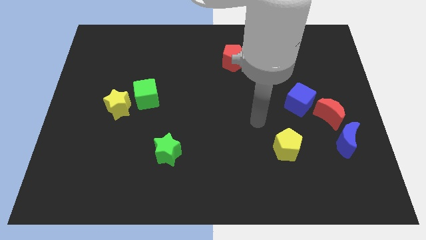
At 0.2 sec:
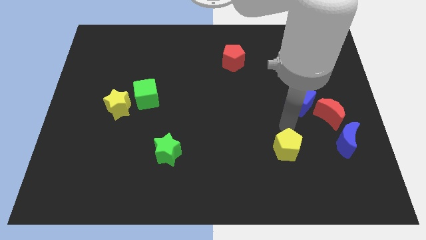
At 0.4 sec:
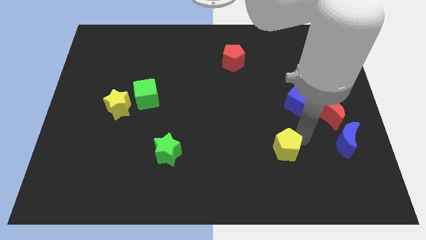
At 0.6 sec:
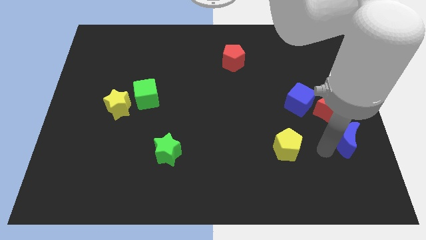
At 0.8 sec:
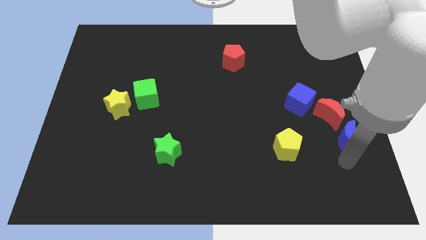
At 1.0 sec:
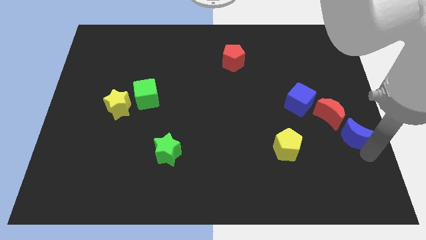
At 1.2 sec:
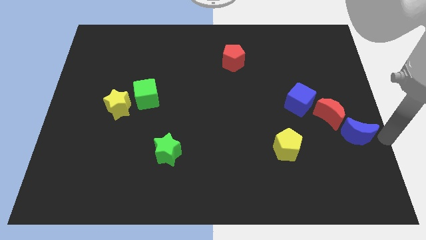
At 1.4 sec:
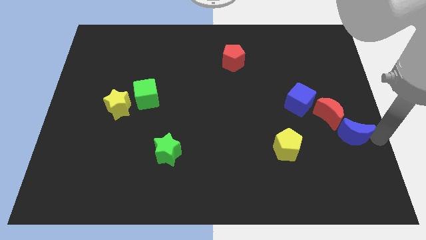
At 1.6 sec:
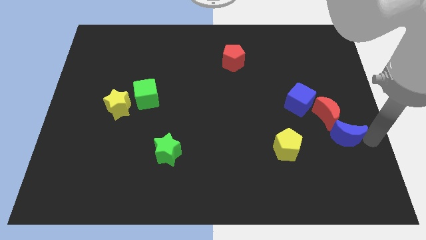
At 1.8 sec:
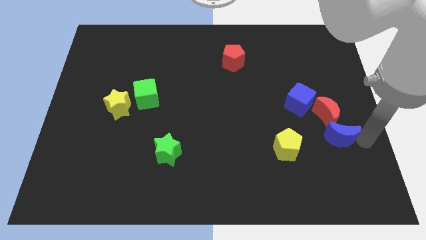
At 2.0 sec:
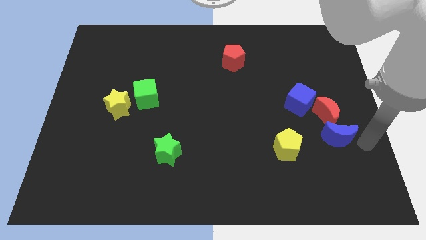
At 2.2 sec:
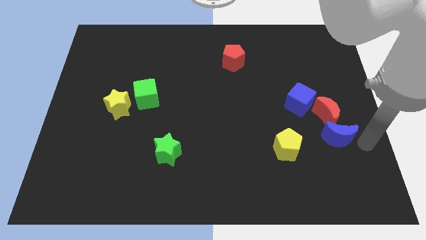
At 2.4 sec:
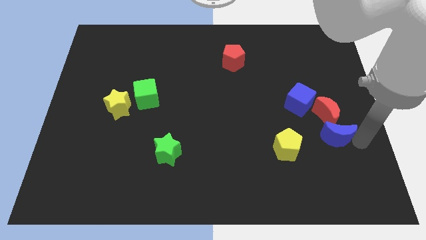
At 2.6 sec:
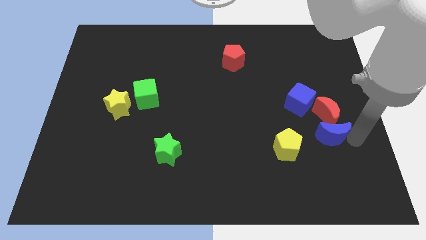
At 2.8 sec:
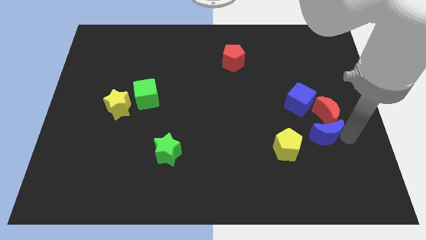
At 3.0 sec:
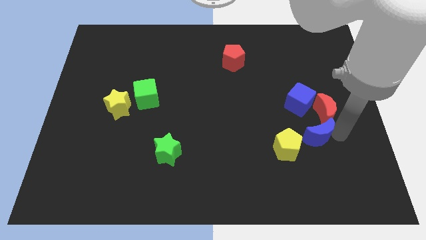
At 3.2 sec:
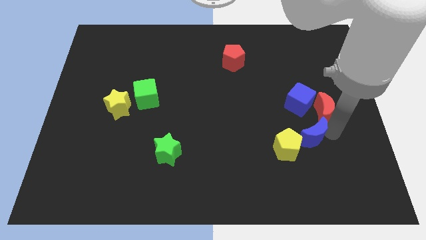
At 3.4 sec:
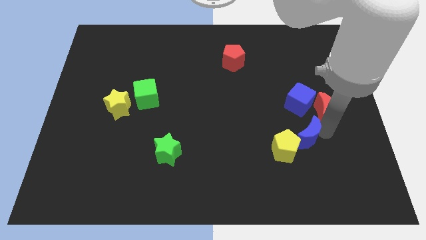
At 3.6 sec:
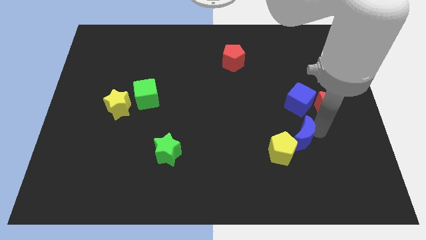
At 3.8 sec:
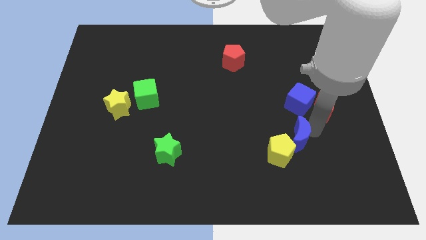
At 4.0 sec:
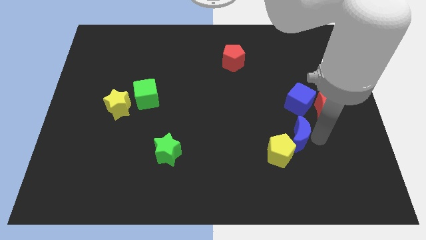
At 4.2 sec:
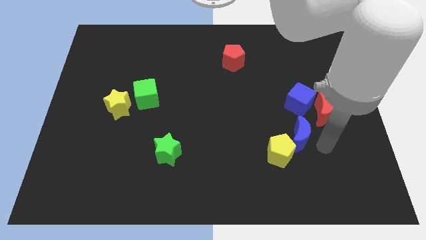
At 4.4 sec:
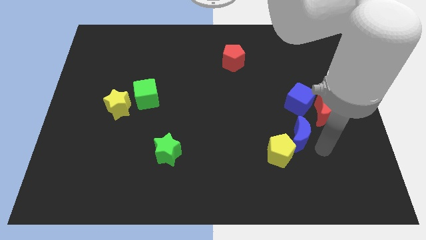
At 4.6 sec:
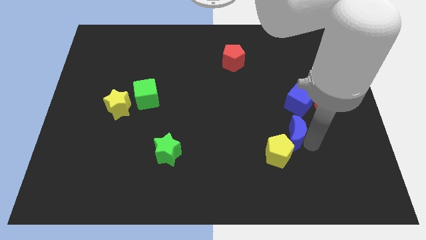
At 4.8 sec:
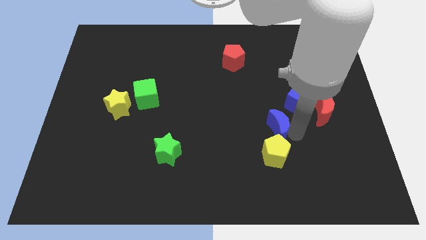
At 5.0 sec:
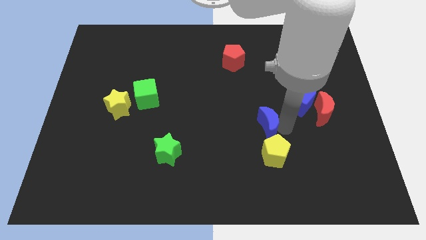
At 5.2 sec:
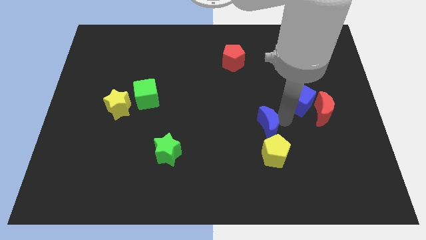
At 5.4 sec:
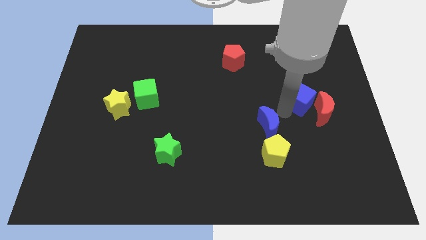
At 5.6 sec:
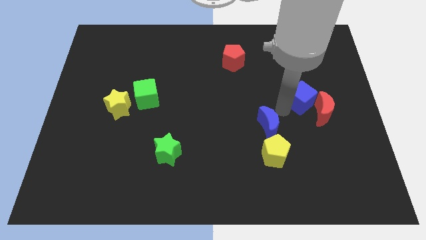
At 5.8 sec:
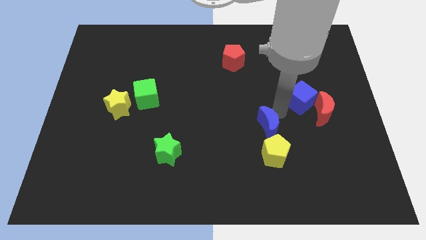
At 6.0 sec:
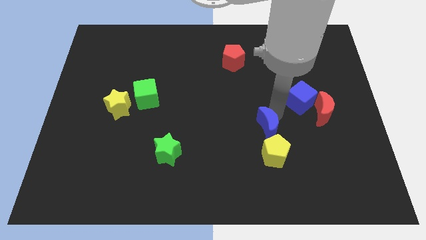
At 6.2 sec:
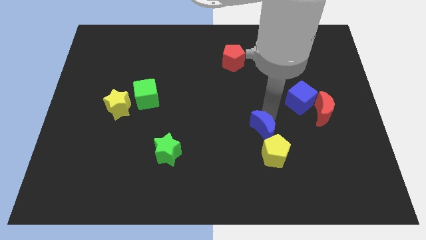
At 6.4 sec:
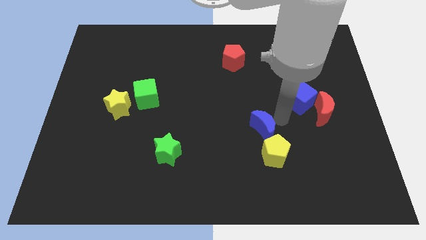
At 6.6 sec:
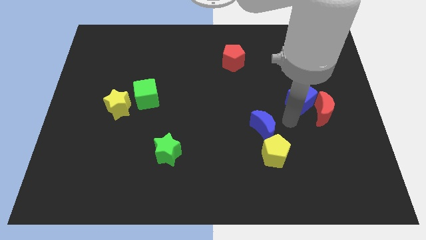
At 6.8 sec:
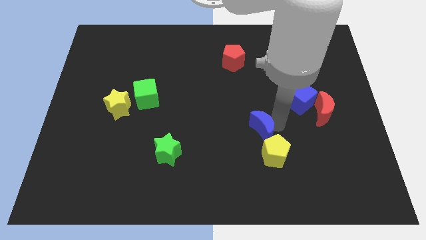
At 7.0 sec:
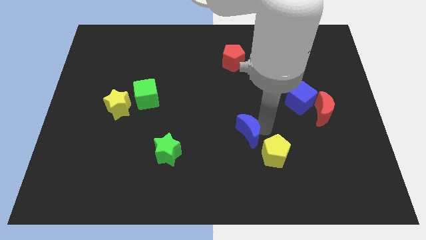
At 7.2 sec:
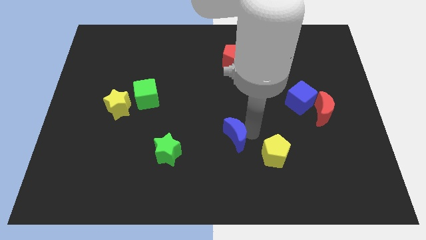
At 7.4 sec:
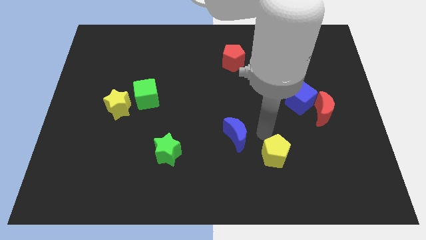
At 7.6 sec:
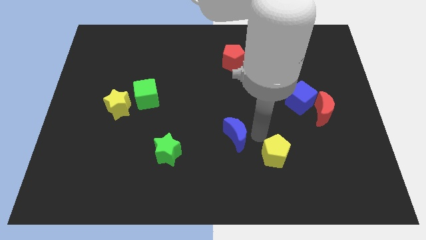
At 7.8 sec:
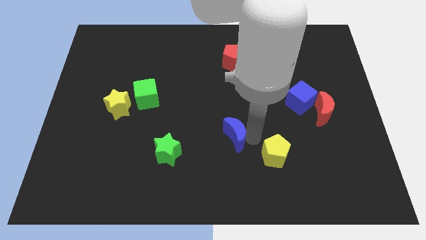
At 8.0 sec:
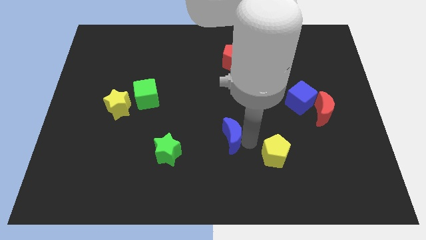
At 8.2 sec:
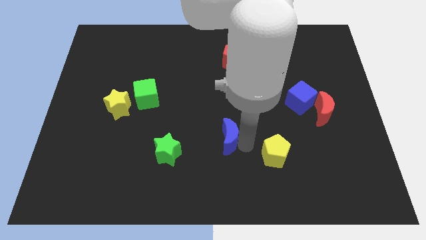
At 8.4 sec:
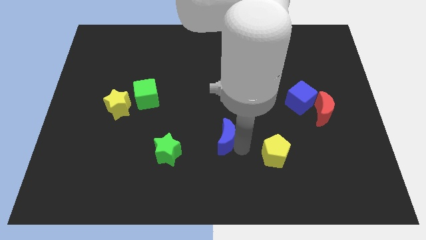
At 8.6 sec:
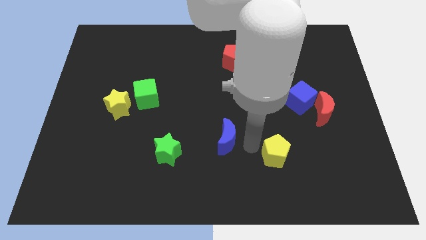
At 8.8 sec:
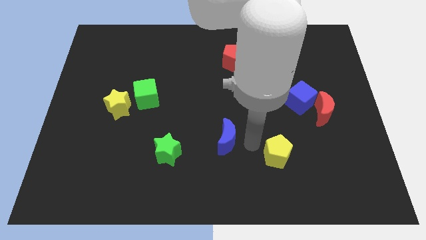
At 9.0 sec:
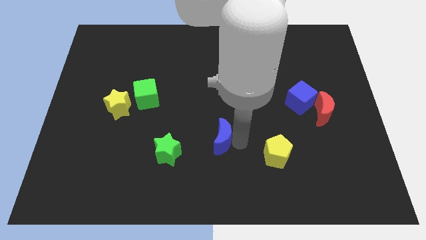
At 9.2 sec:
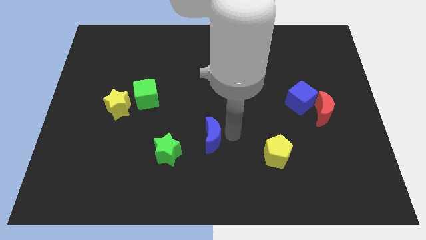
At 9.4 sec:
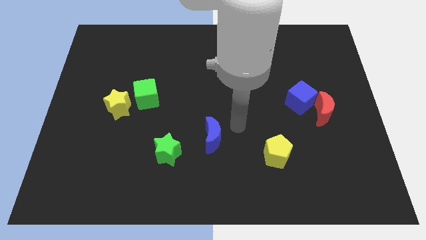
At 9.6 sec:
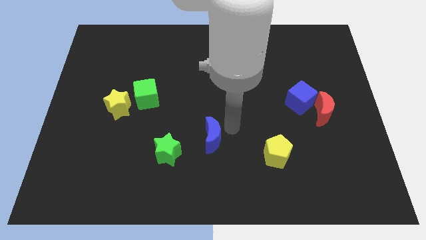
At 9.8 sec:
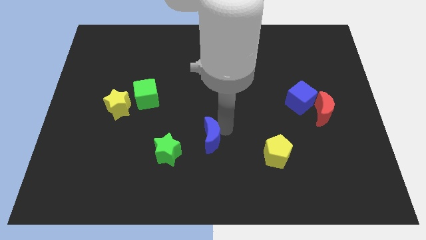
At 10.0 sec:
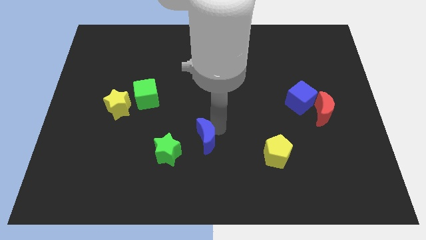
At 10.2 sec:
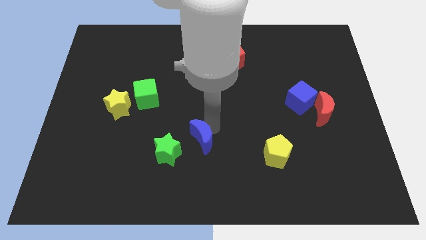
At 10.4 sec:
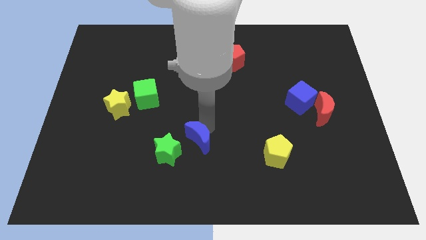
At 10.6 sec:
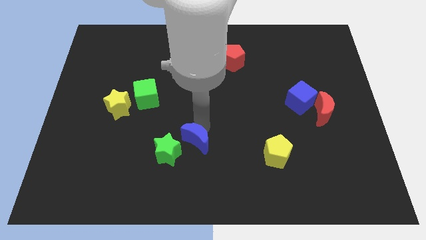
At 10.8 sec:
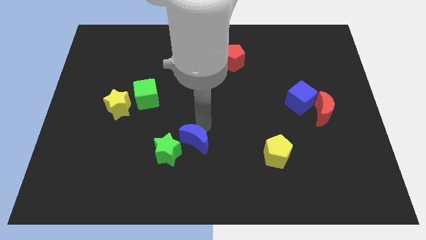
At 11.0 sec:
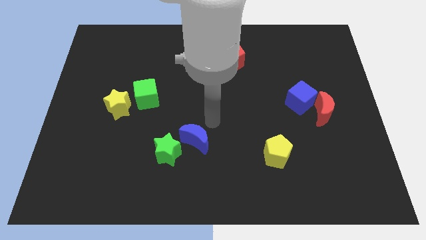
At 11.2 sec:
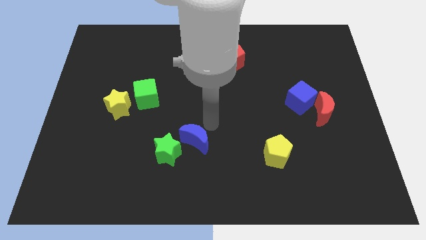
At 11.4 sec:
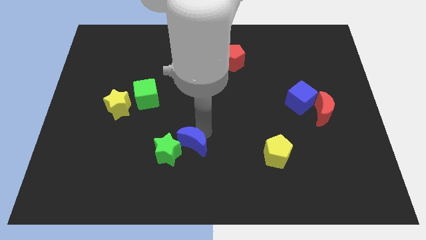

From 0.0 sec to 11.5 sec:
put the blue moon towards the green star

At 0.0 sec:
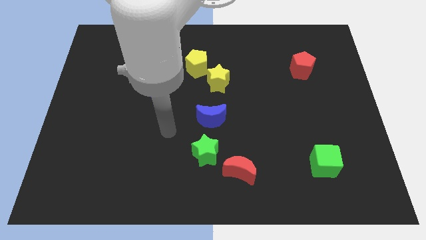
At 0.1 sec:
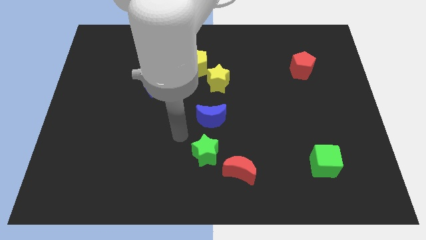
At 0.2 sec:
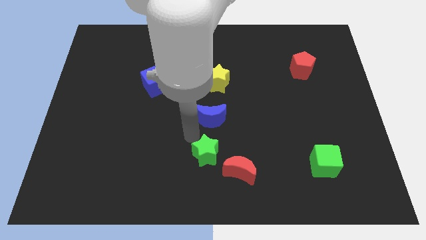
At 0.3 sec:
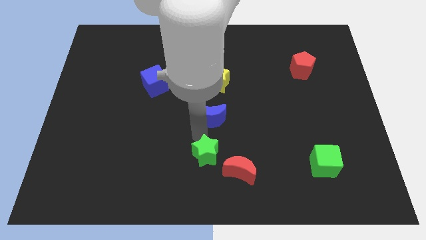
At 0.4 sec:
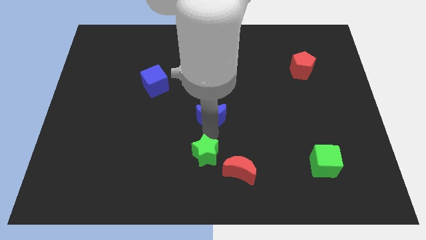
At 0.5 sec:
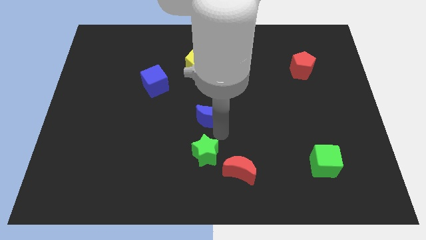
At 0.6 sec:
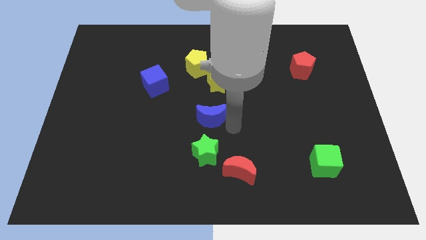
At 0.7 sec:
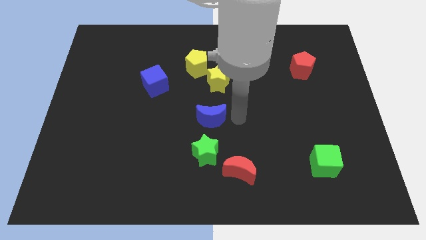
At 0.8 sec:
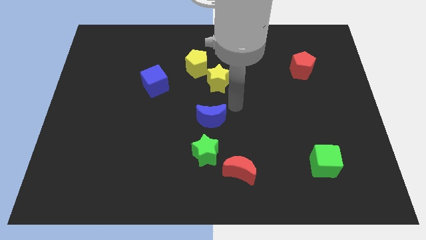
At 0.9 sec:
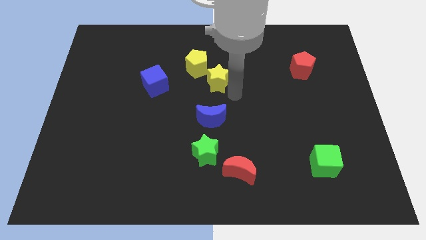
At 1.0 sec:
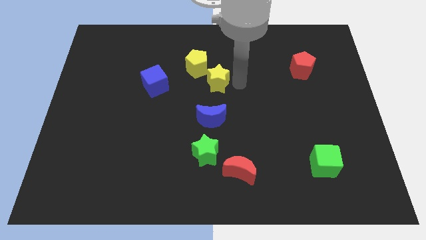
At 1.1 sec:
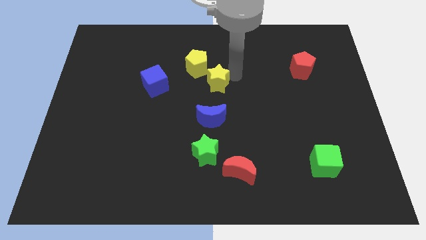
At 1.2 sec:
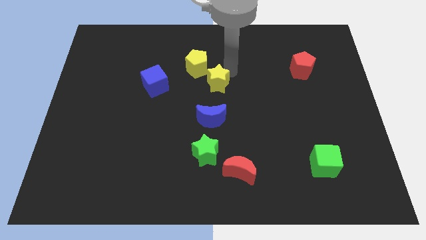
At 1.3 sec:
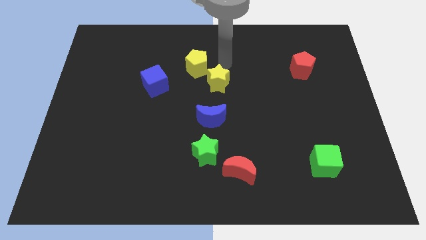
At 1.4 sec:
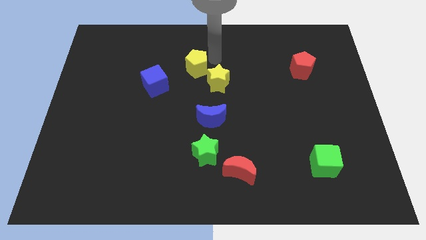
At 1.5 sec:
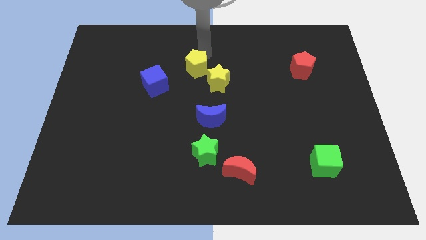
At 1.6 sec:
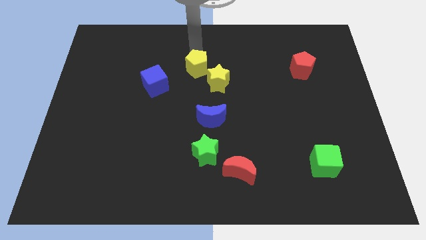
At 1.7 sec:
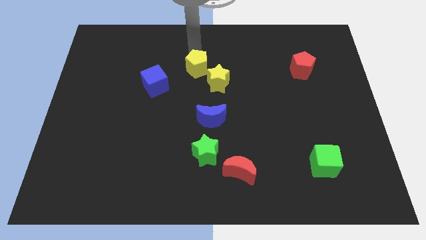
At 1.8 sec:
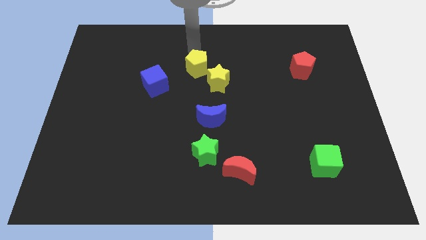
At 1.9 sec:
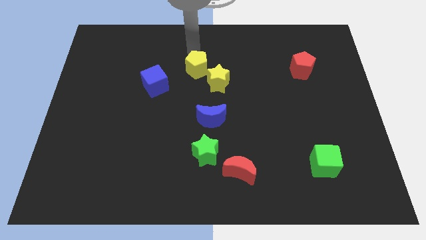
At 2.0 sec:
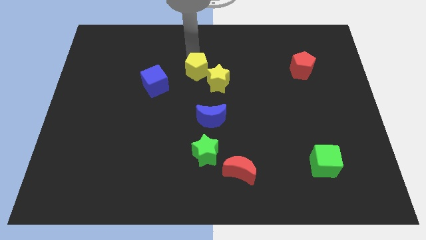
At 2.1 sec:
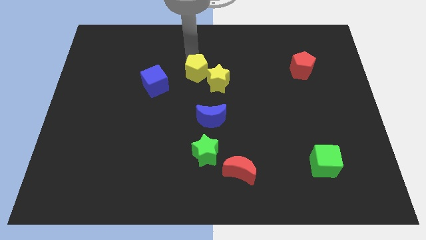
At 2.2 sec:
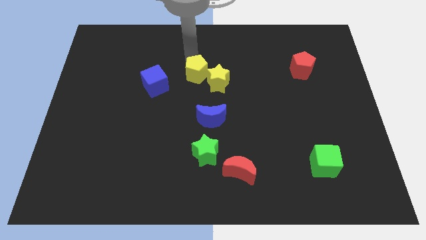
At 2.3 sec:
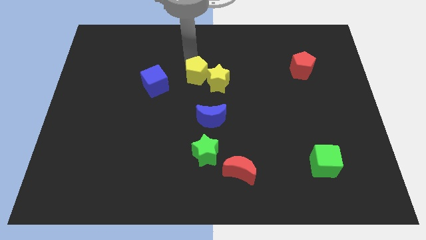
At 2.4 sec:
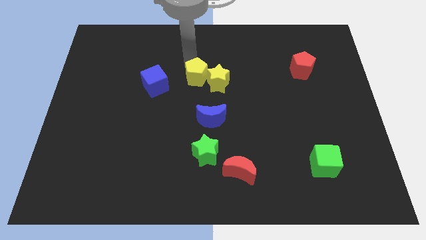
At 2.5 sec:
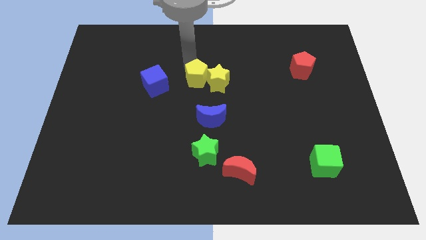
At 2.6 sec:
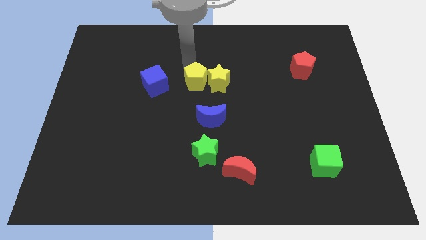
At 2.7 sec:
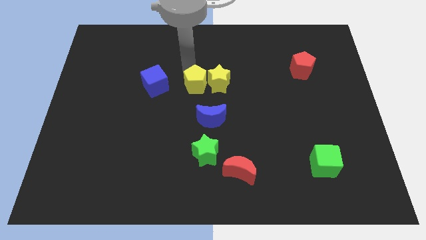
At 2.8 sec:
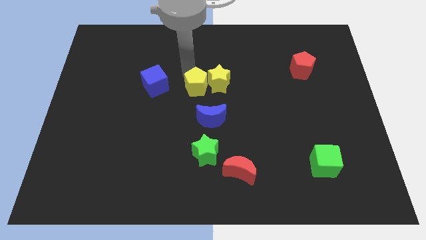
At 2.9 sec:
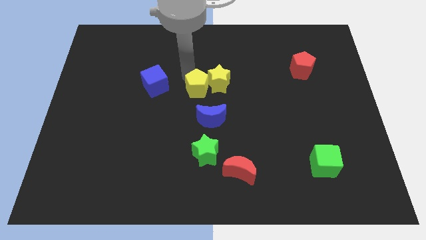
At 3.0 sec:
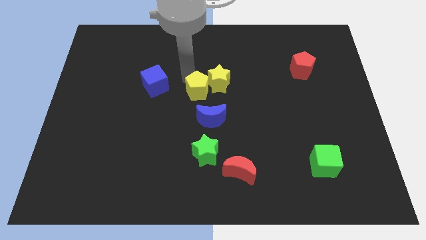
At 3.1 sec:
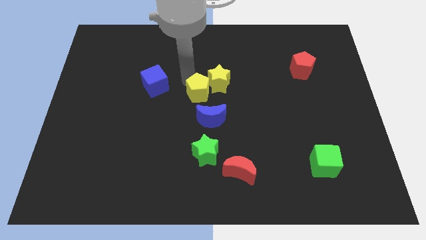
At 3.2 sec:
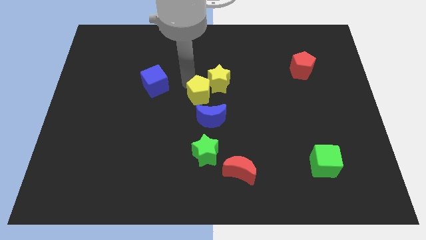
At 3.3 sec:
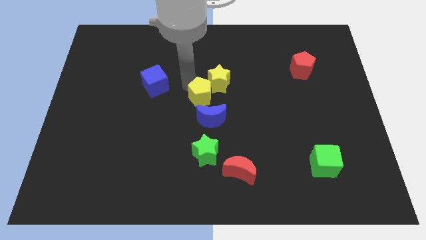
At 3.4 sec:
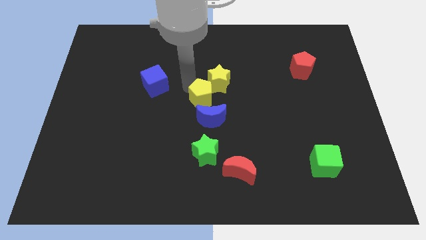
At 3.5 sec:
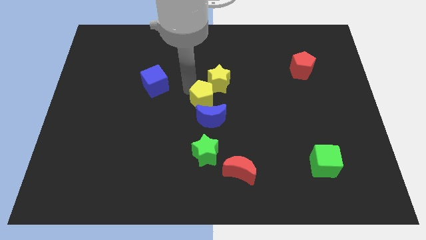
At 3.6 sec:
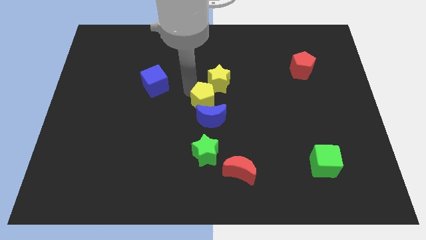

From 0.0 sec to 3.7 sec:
slide the yellow pentagon next to the blue moon
